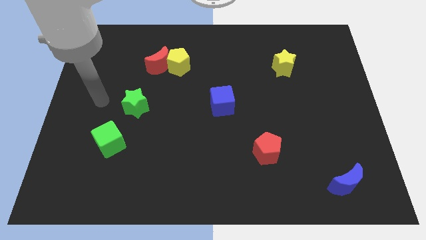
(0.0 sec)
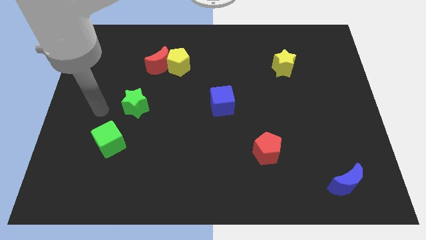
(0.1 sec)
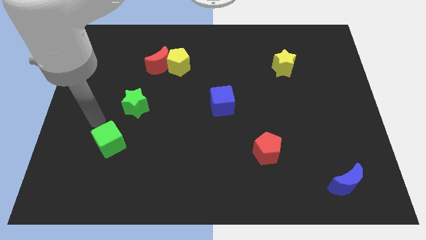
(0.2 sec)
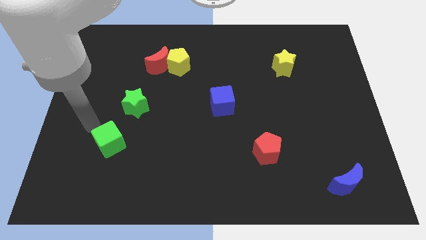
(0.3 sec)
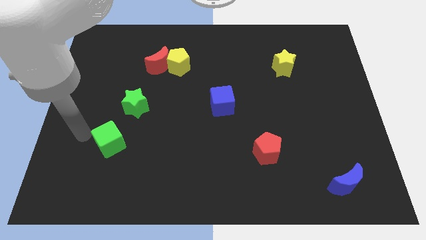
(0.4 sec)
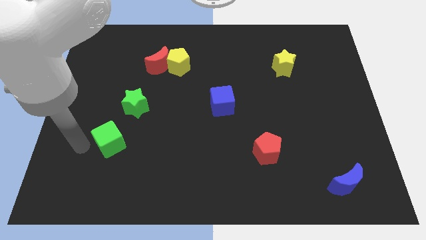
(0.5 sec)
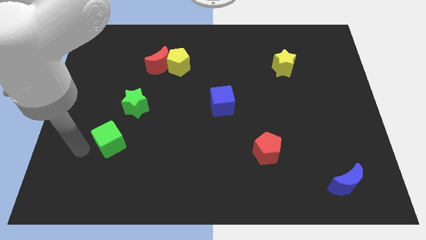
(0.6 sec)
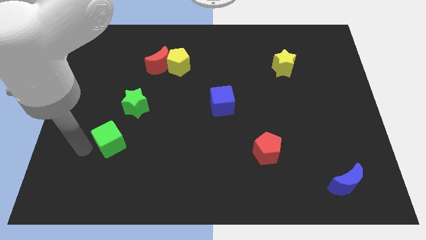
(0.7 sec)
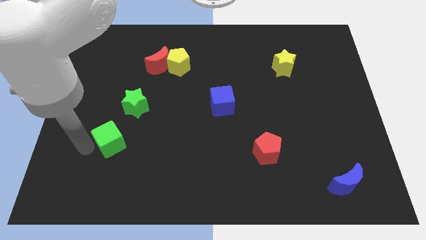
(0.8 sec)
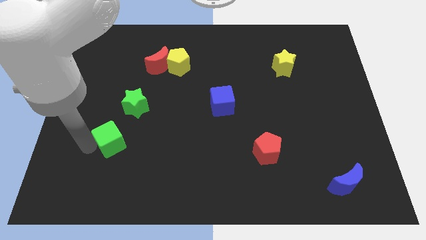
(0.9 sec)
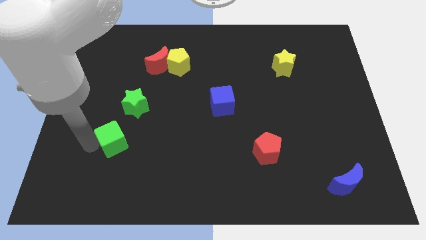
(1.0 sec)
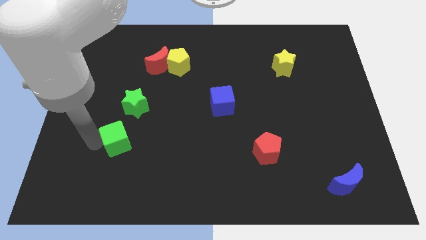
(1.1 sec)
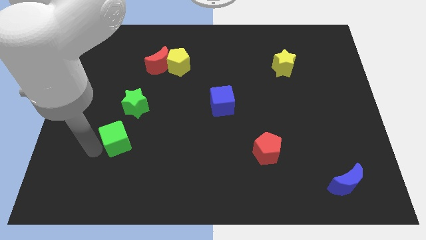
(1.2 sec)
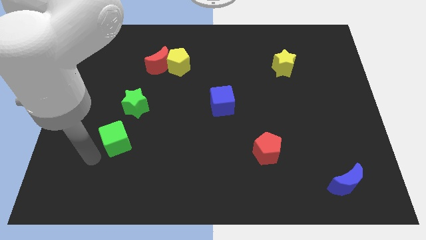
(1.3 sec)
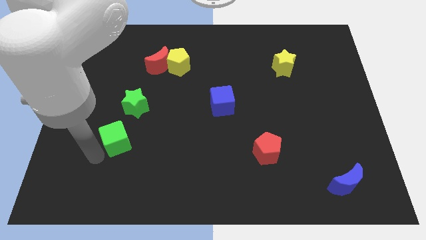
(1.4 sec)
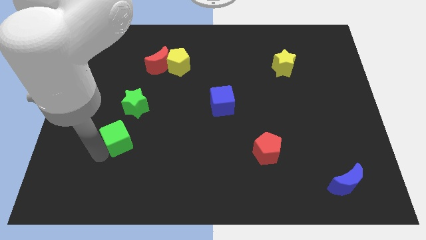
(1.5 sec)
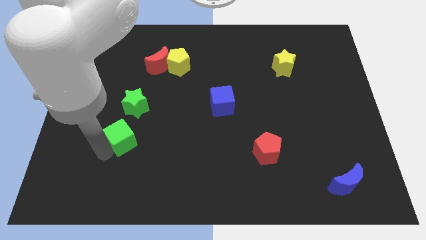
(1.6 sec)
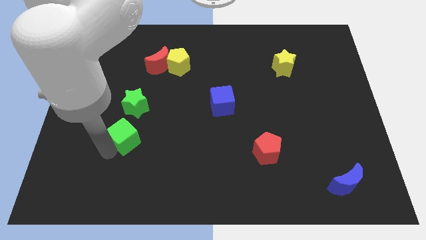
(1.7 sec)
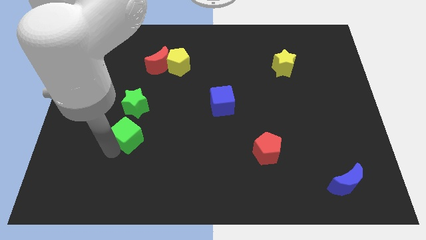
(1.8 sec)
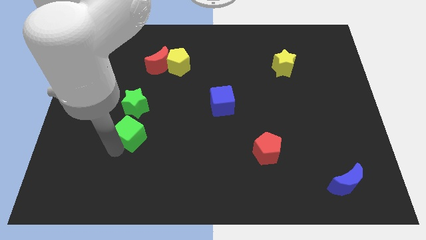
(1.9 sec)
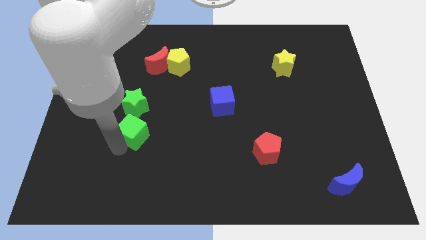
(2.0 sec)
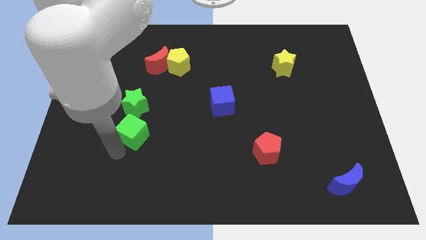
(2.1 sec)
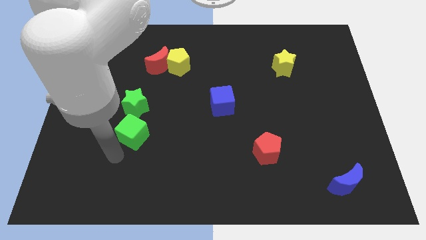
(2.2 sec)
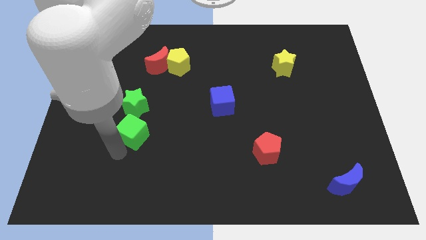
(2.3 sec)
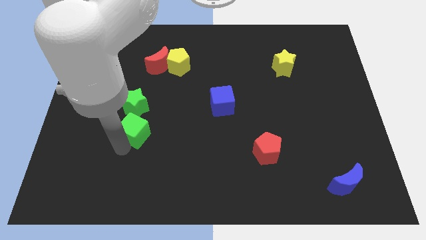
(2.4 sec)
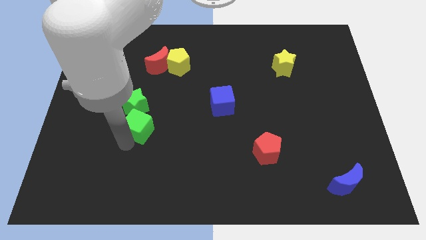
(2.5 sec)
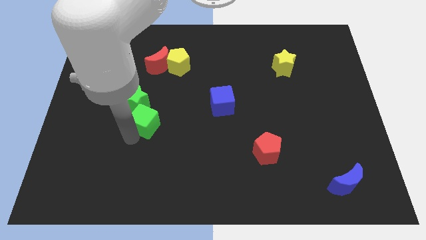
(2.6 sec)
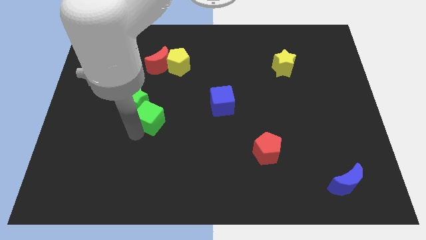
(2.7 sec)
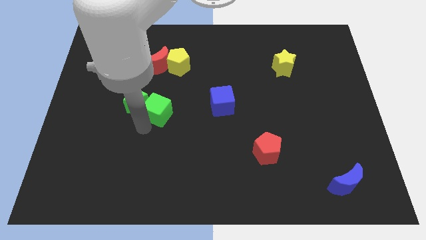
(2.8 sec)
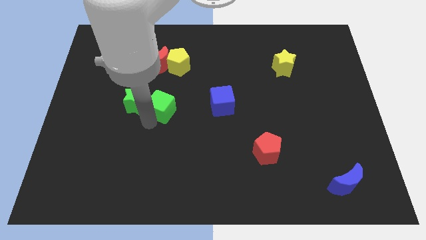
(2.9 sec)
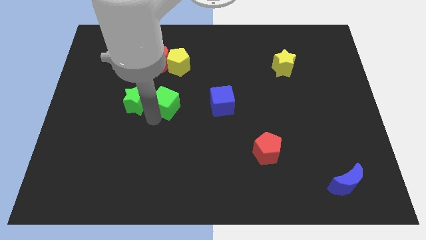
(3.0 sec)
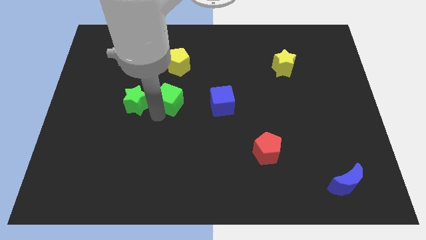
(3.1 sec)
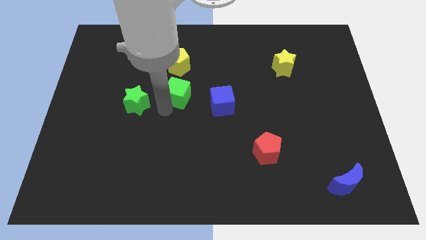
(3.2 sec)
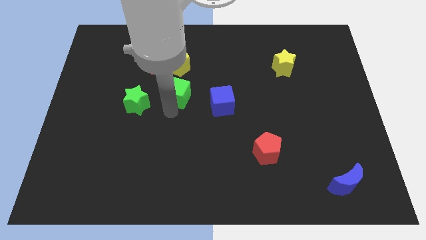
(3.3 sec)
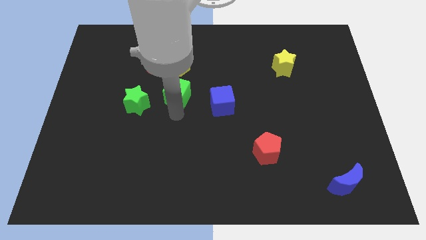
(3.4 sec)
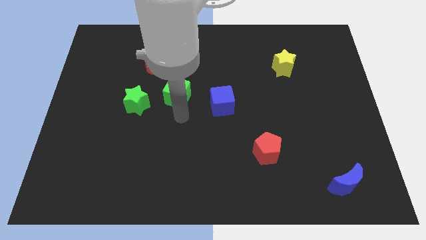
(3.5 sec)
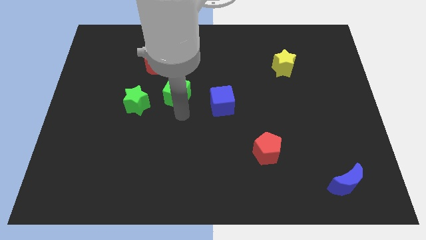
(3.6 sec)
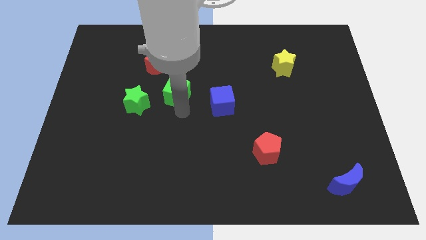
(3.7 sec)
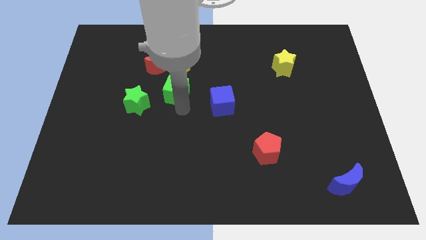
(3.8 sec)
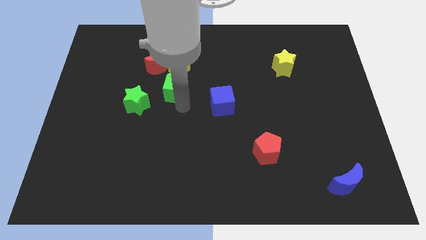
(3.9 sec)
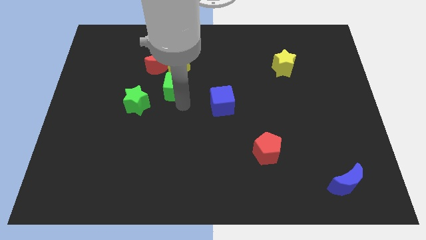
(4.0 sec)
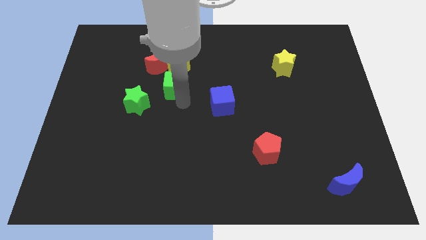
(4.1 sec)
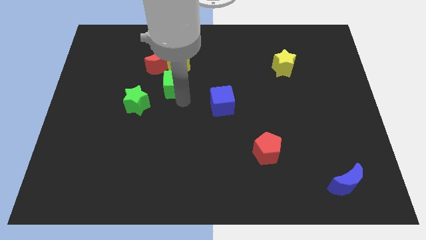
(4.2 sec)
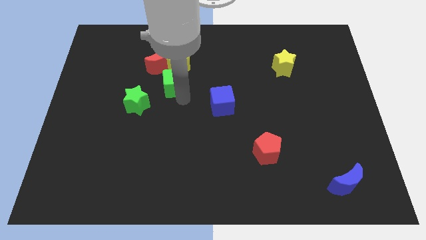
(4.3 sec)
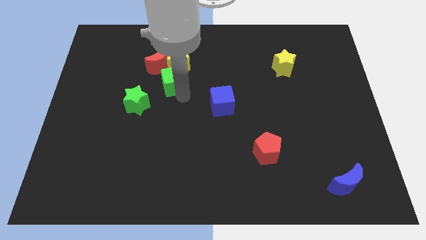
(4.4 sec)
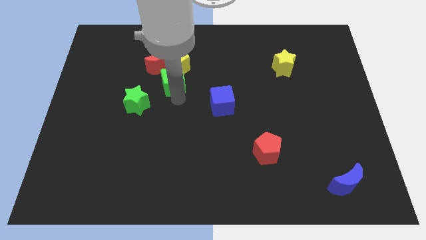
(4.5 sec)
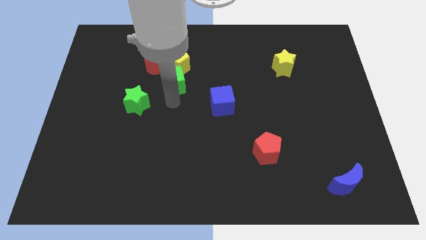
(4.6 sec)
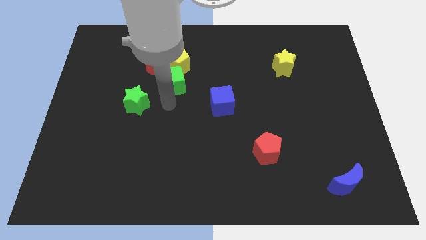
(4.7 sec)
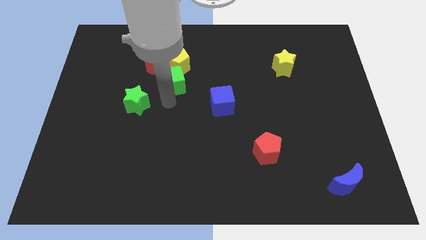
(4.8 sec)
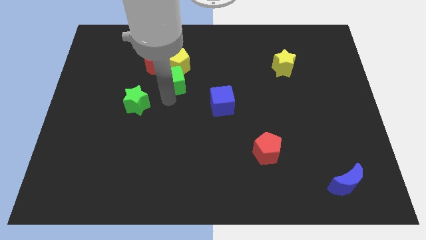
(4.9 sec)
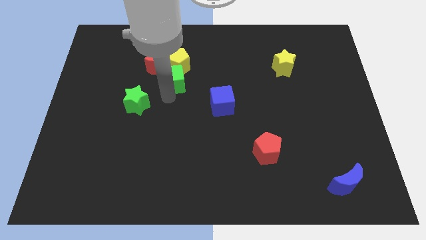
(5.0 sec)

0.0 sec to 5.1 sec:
slide the green cube to the yellow pentagon

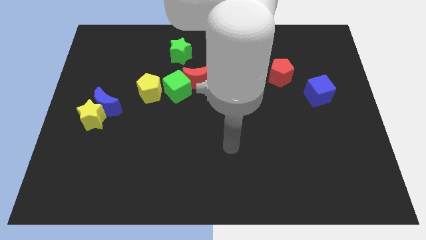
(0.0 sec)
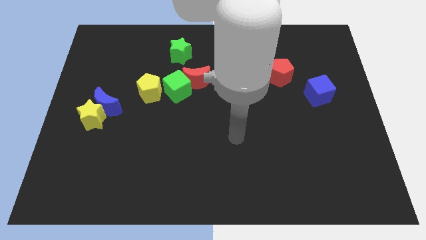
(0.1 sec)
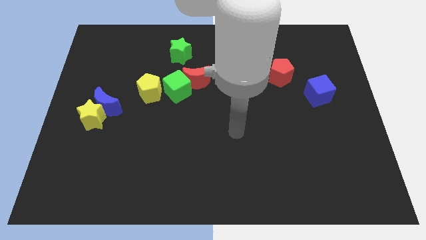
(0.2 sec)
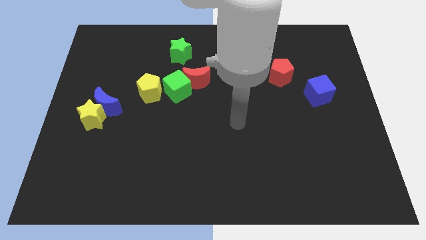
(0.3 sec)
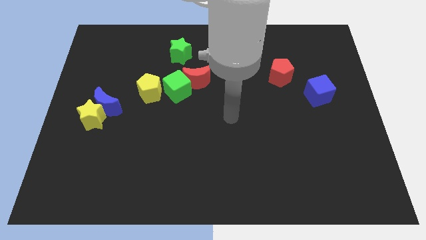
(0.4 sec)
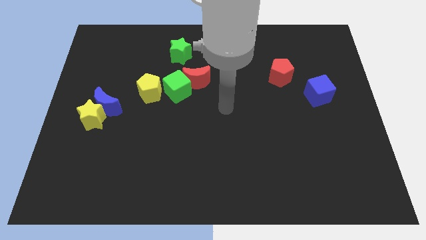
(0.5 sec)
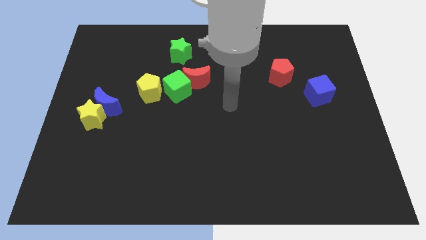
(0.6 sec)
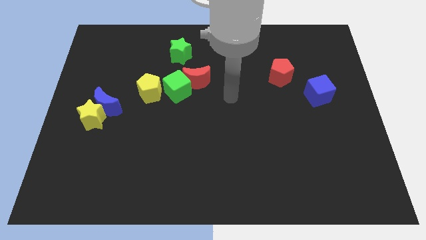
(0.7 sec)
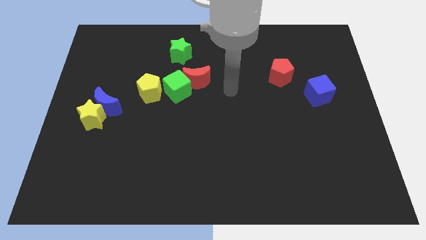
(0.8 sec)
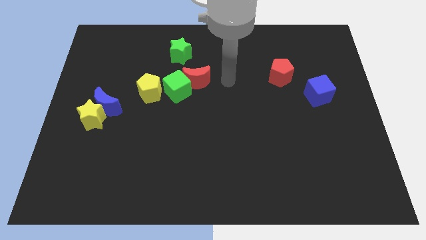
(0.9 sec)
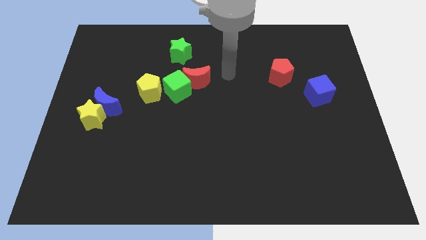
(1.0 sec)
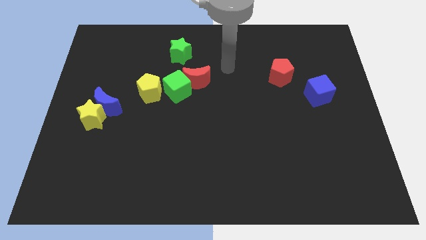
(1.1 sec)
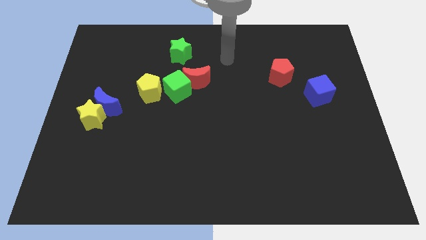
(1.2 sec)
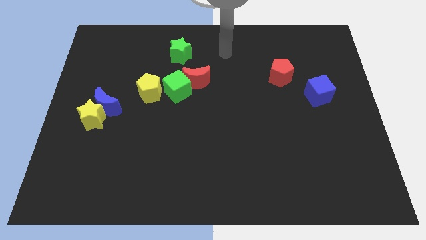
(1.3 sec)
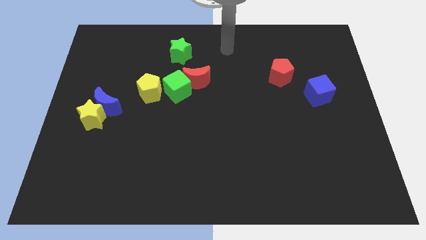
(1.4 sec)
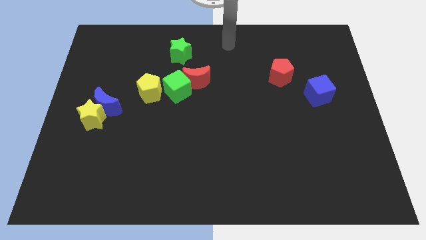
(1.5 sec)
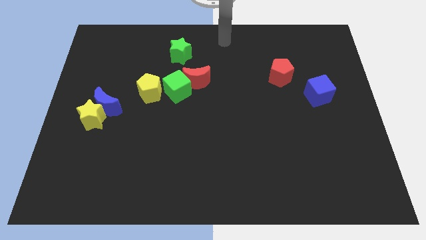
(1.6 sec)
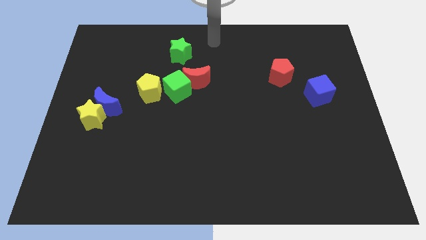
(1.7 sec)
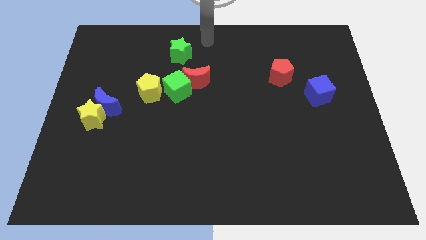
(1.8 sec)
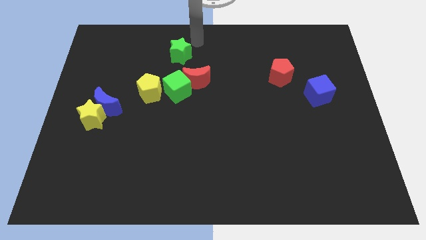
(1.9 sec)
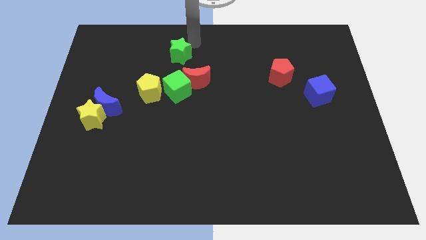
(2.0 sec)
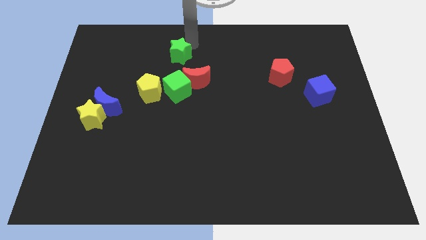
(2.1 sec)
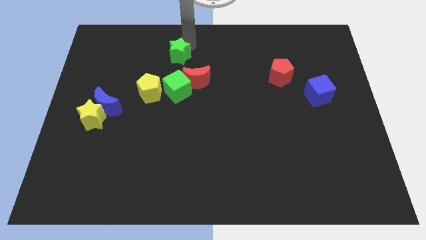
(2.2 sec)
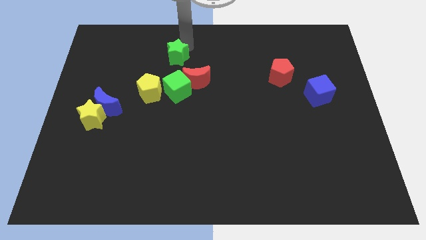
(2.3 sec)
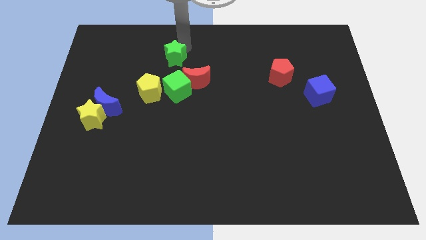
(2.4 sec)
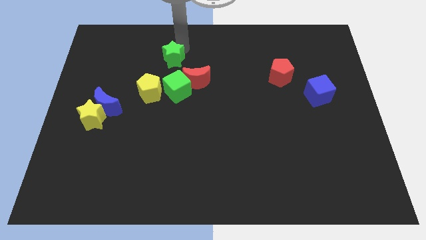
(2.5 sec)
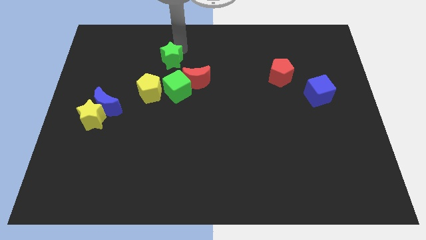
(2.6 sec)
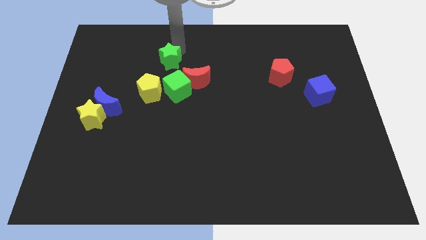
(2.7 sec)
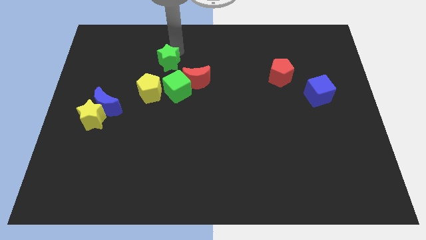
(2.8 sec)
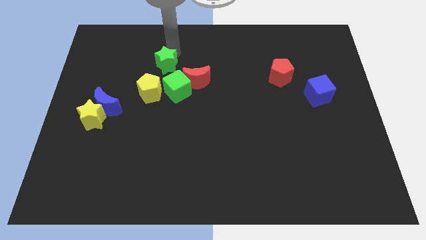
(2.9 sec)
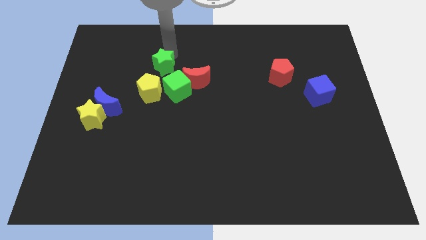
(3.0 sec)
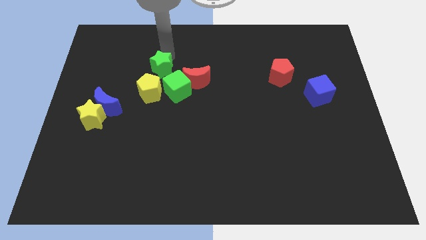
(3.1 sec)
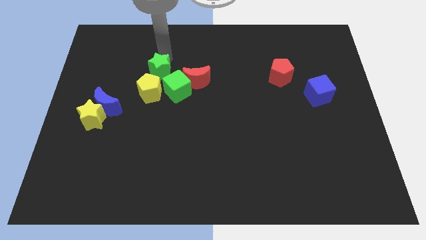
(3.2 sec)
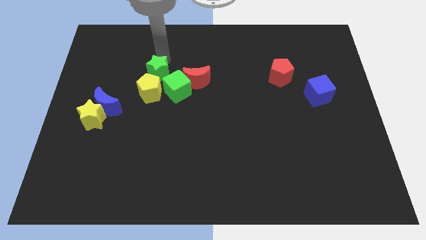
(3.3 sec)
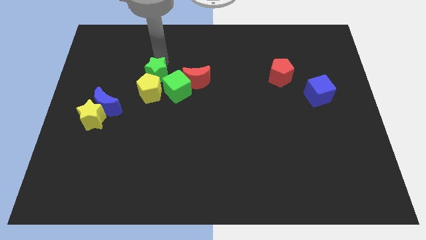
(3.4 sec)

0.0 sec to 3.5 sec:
put the green star towards the yellow pentagon
